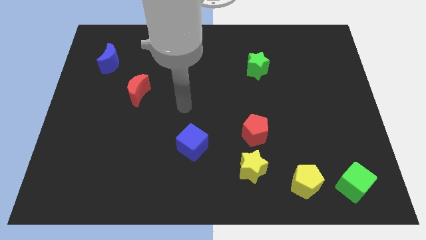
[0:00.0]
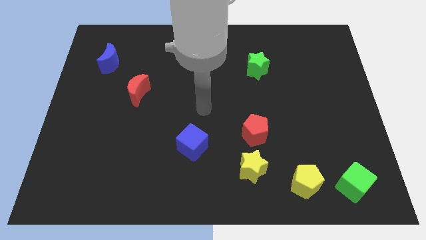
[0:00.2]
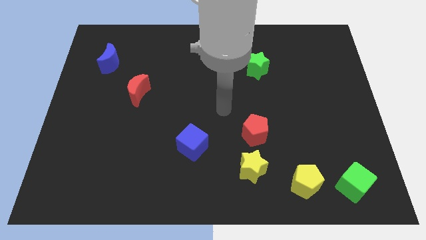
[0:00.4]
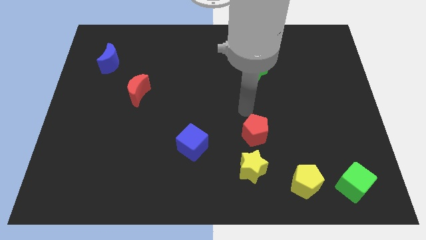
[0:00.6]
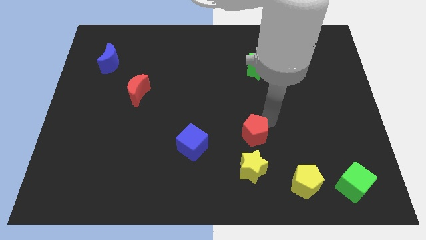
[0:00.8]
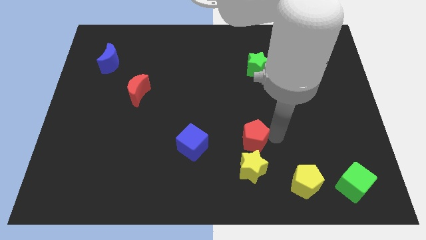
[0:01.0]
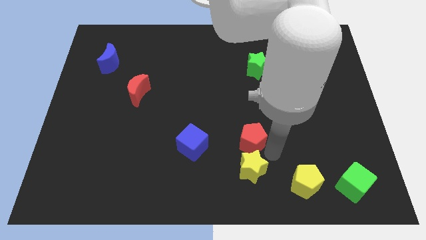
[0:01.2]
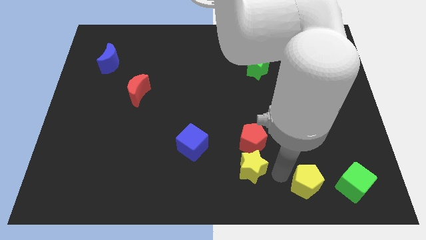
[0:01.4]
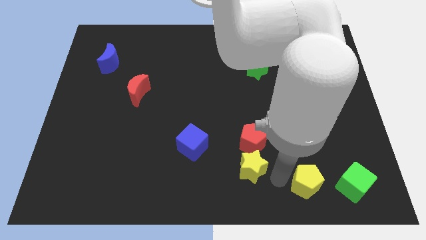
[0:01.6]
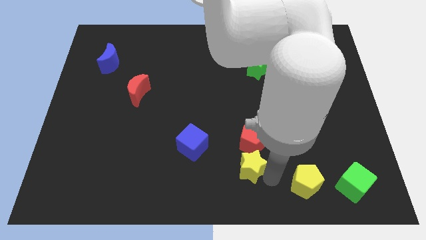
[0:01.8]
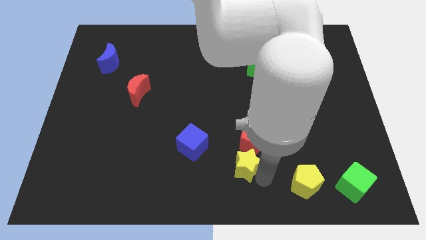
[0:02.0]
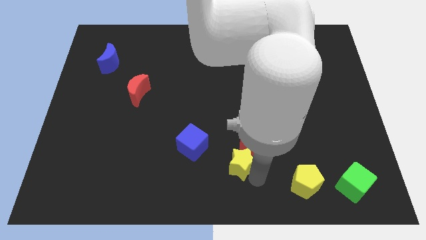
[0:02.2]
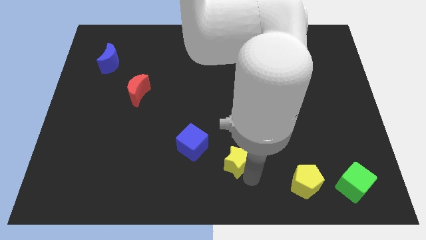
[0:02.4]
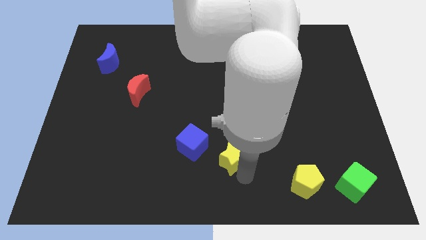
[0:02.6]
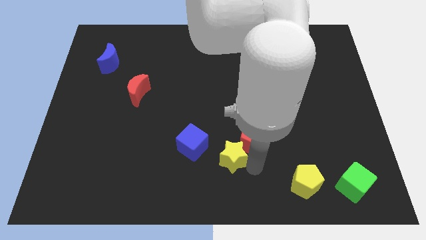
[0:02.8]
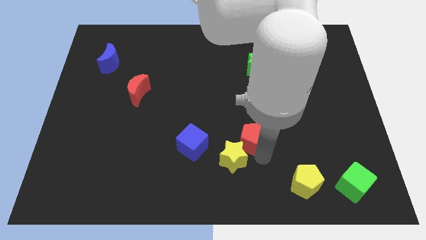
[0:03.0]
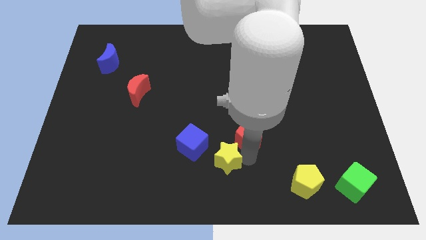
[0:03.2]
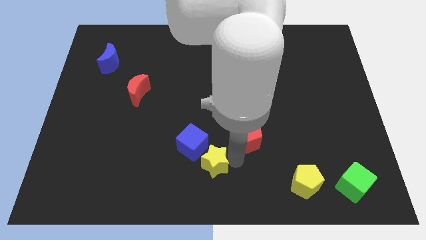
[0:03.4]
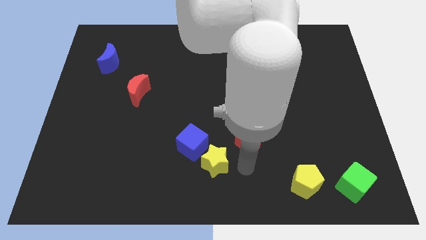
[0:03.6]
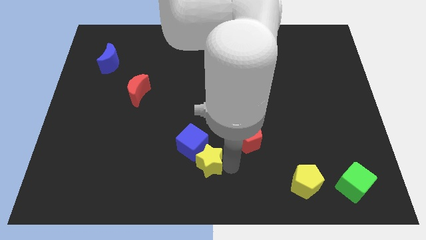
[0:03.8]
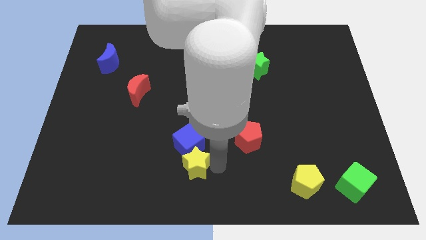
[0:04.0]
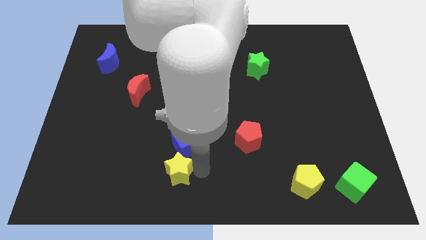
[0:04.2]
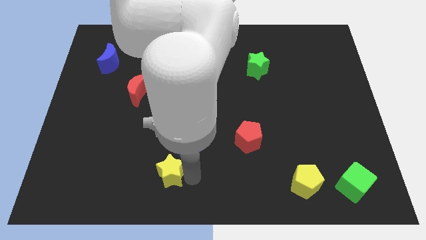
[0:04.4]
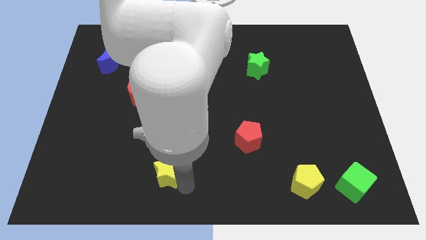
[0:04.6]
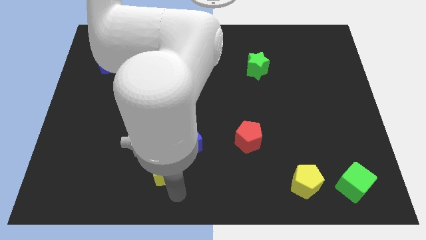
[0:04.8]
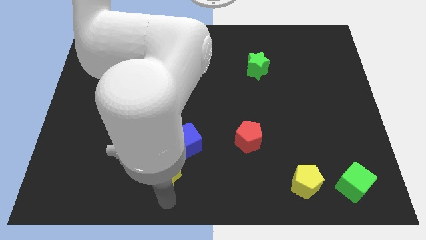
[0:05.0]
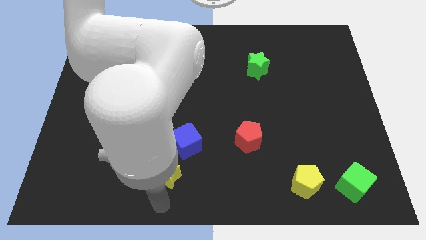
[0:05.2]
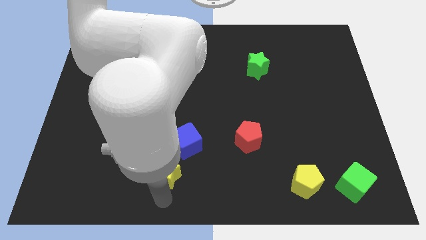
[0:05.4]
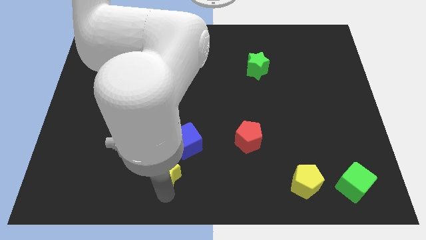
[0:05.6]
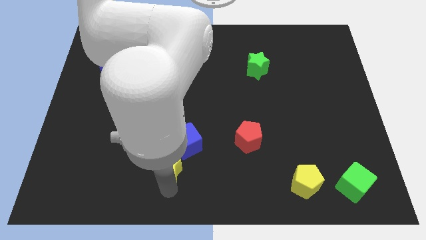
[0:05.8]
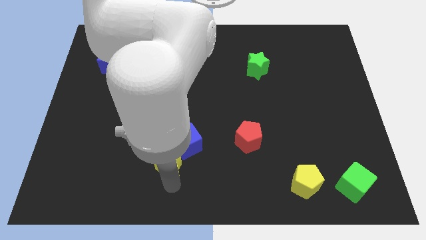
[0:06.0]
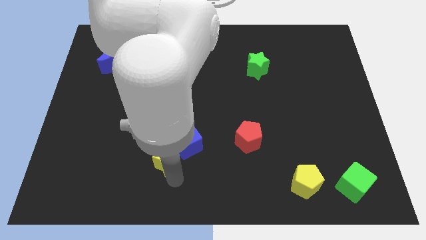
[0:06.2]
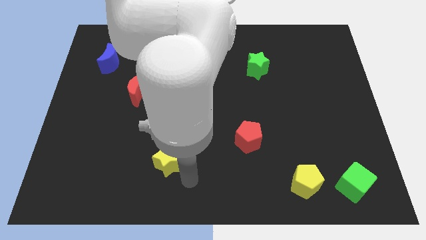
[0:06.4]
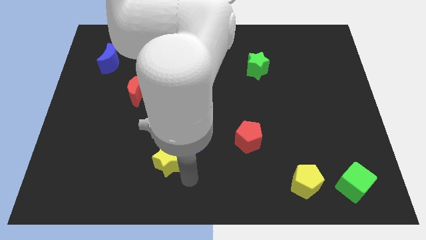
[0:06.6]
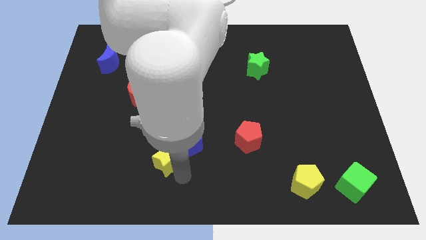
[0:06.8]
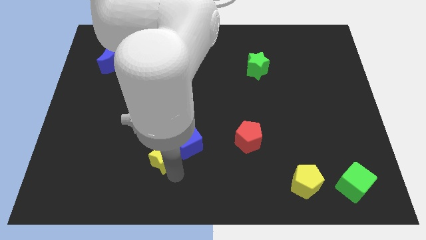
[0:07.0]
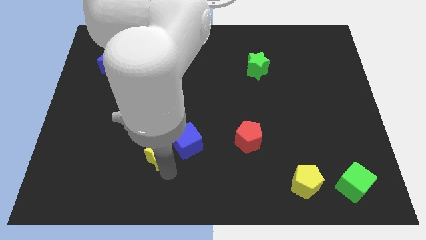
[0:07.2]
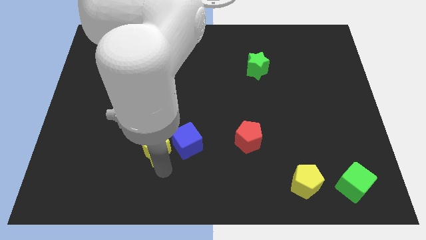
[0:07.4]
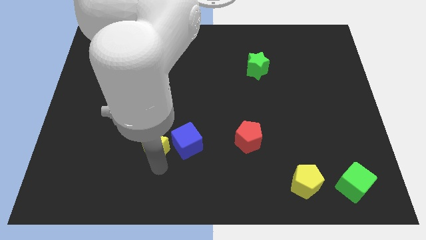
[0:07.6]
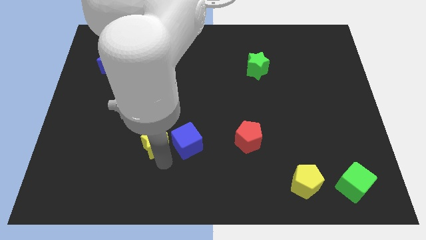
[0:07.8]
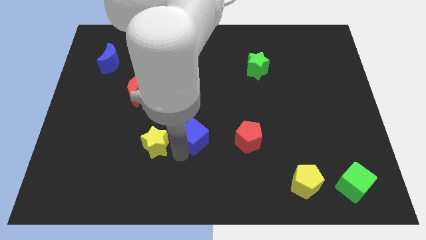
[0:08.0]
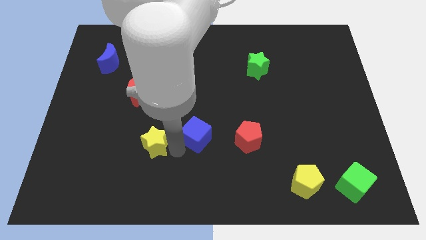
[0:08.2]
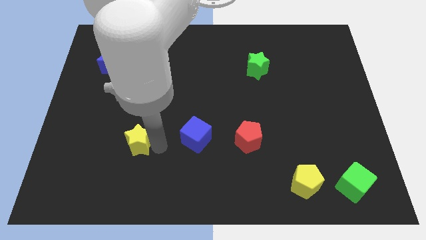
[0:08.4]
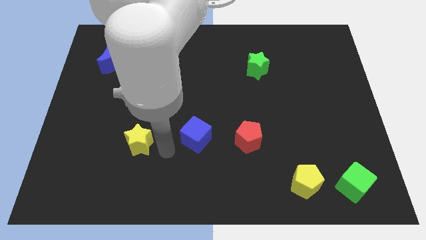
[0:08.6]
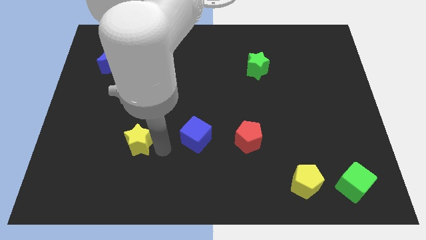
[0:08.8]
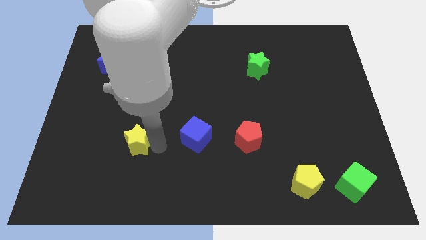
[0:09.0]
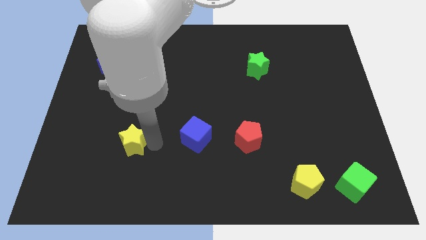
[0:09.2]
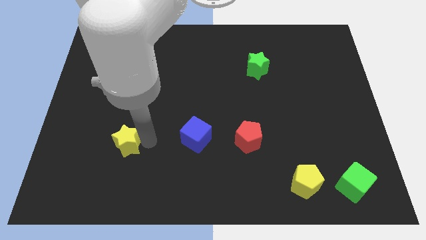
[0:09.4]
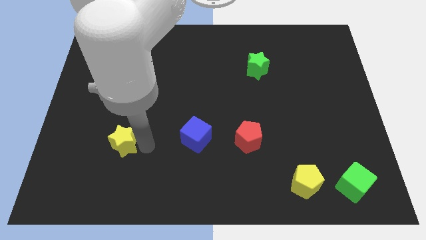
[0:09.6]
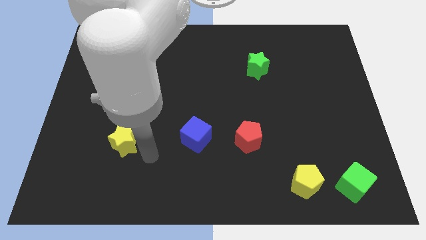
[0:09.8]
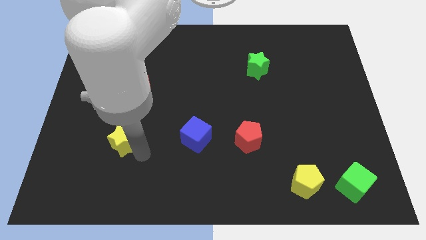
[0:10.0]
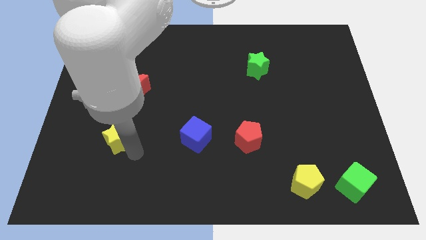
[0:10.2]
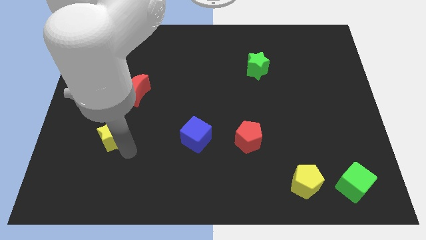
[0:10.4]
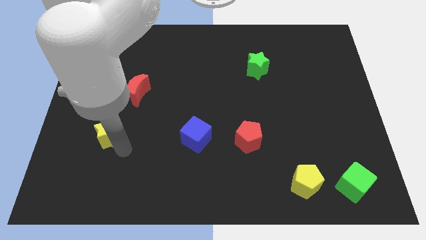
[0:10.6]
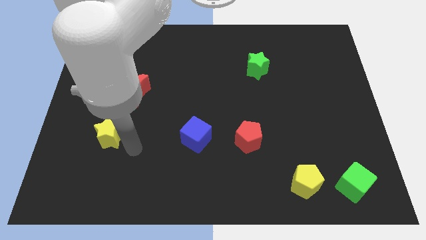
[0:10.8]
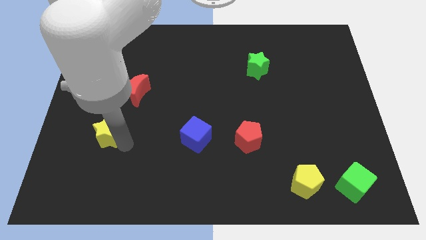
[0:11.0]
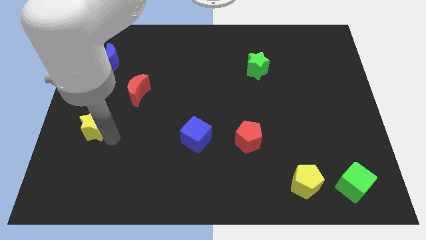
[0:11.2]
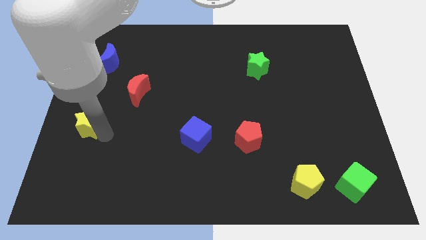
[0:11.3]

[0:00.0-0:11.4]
move the yellow star to the left side of the board
